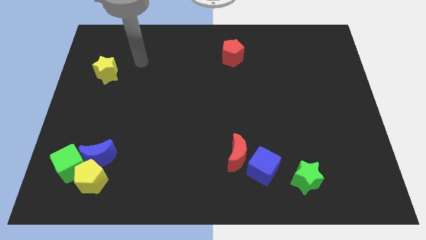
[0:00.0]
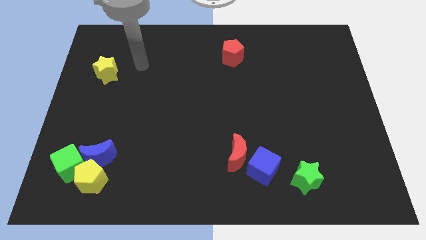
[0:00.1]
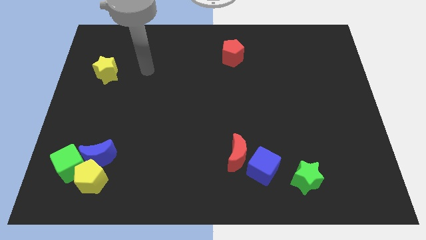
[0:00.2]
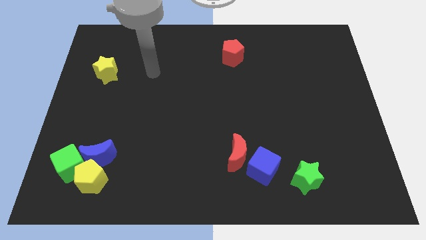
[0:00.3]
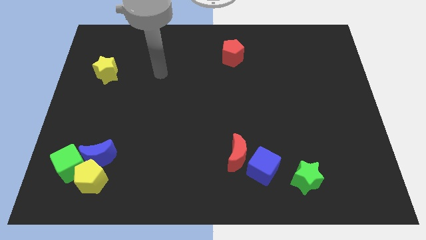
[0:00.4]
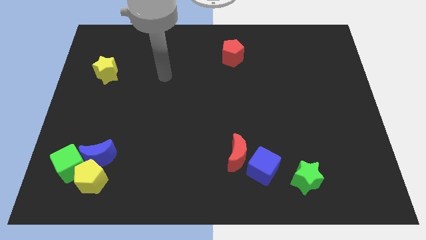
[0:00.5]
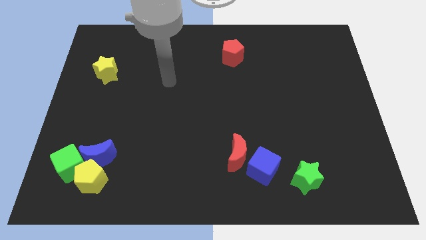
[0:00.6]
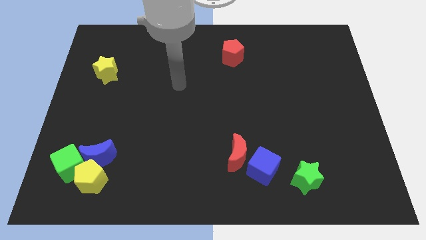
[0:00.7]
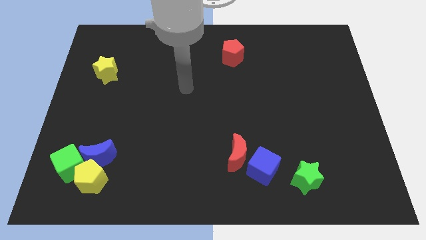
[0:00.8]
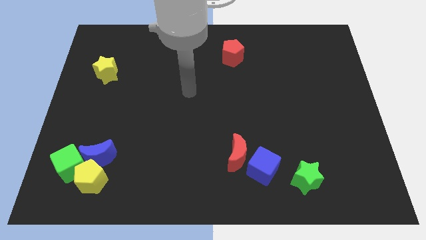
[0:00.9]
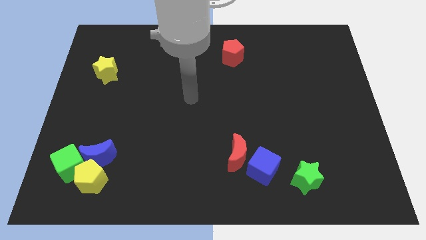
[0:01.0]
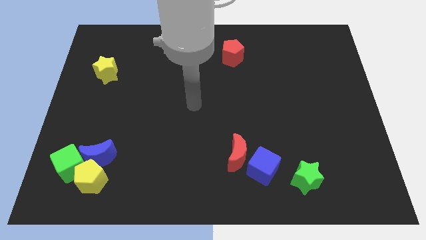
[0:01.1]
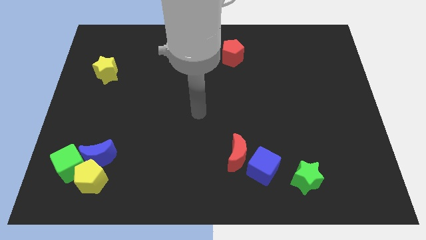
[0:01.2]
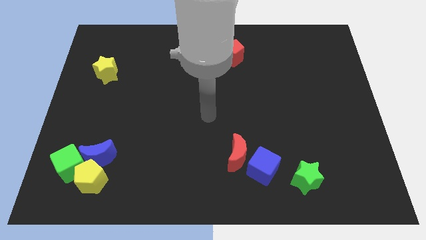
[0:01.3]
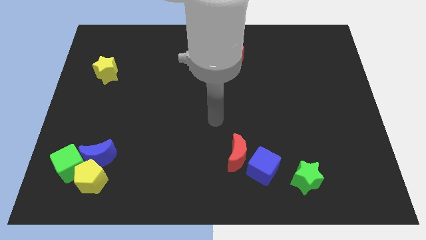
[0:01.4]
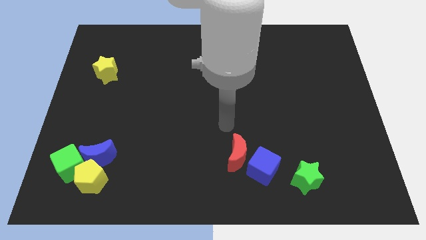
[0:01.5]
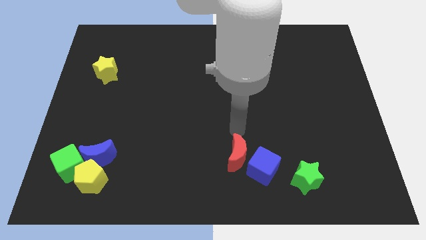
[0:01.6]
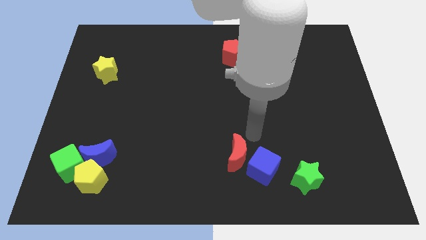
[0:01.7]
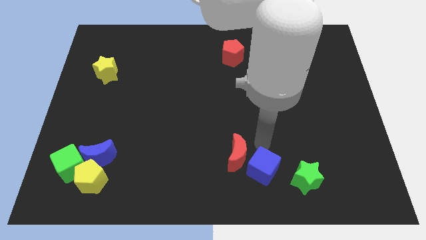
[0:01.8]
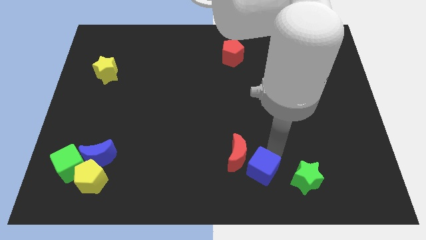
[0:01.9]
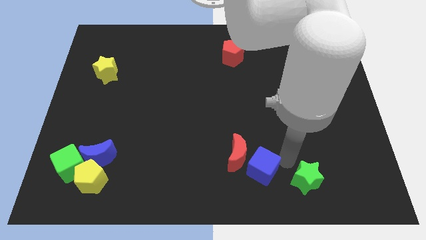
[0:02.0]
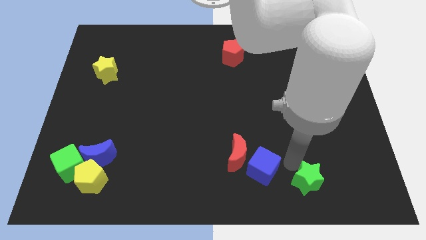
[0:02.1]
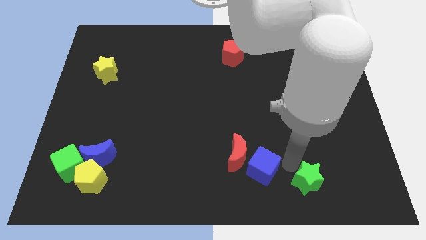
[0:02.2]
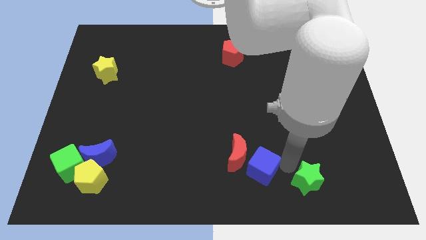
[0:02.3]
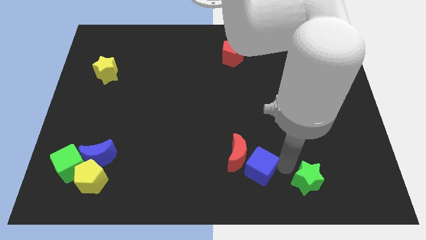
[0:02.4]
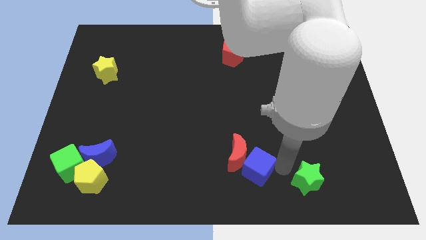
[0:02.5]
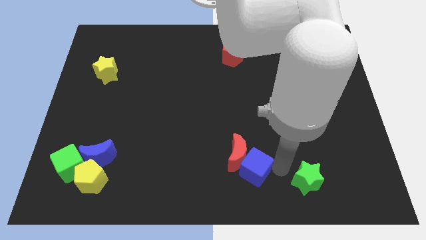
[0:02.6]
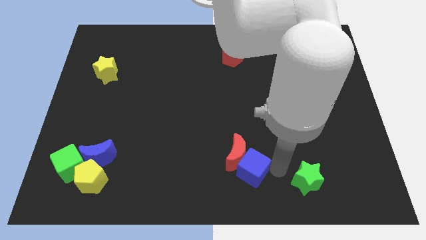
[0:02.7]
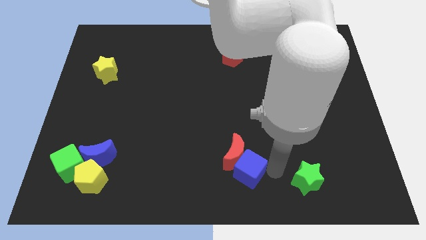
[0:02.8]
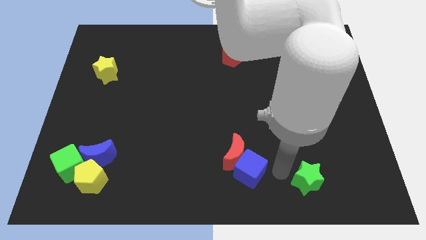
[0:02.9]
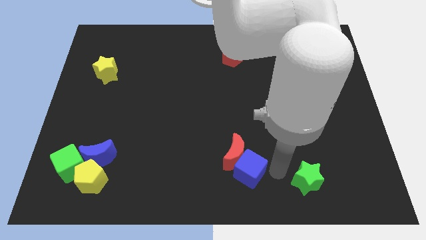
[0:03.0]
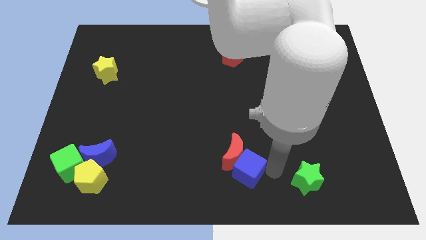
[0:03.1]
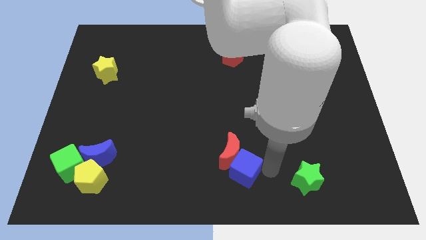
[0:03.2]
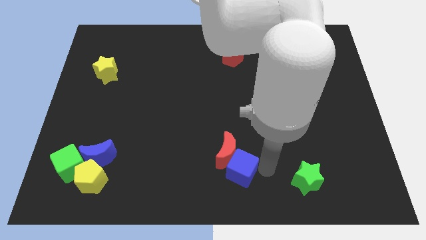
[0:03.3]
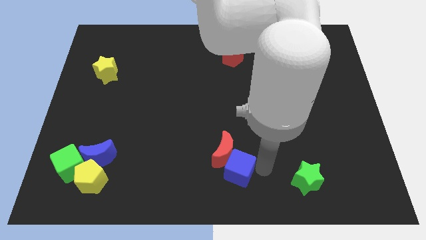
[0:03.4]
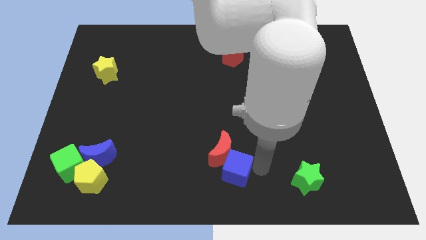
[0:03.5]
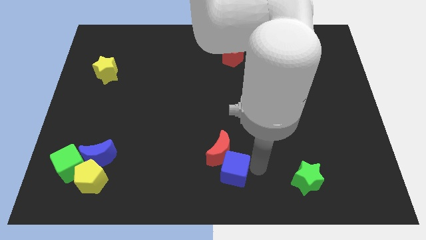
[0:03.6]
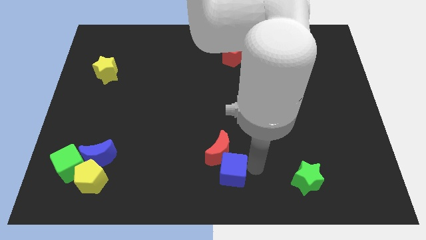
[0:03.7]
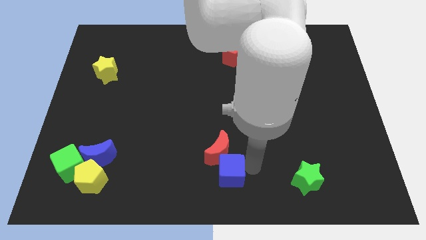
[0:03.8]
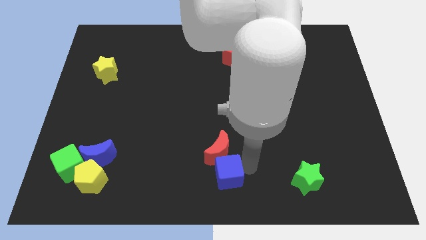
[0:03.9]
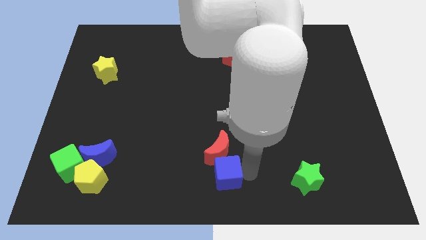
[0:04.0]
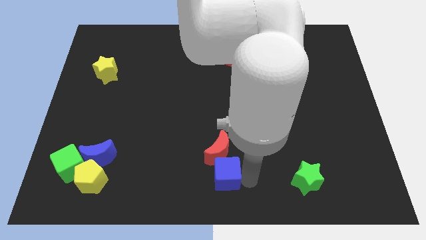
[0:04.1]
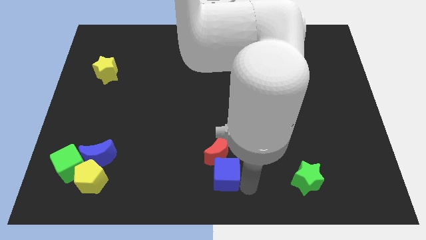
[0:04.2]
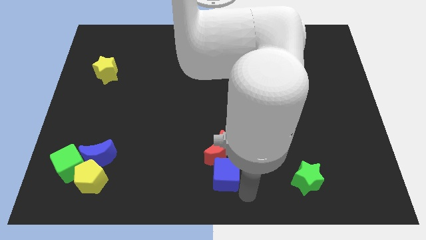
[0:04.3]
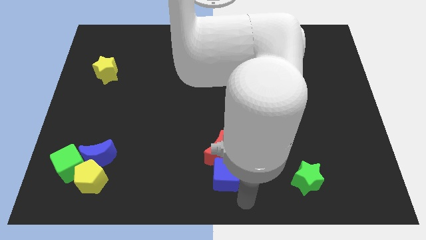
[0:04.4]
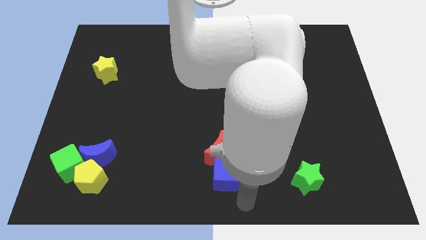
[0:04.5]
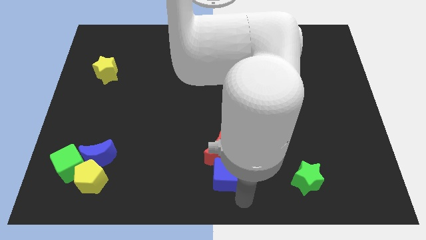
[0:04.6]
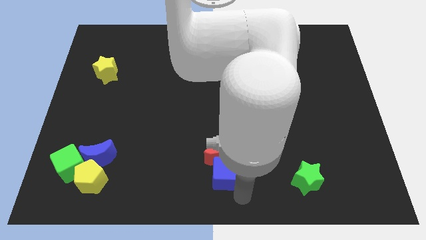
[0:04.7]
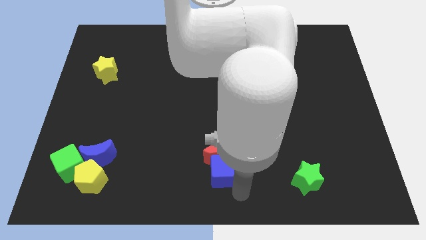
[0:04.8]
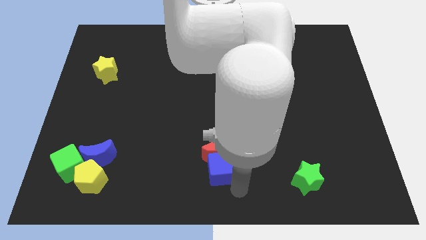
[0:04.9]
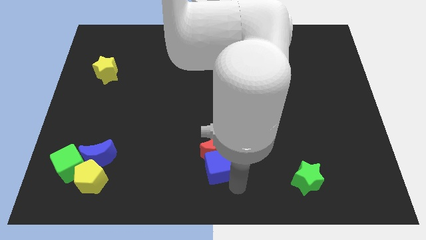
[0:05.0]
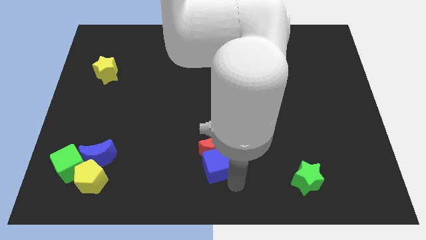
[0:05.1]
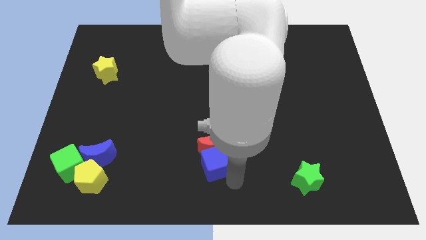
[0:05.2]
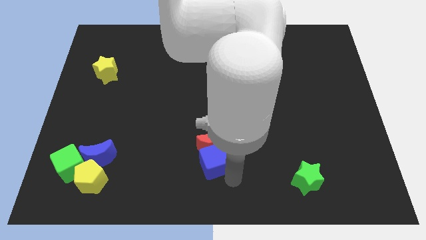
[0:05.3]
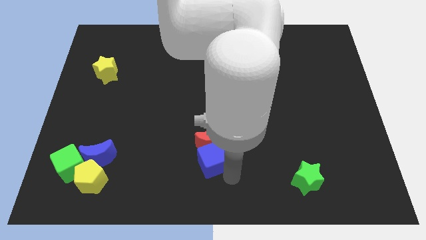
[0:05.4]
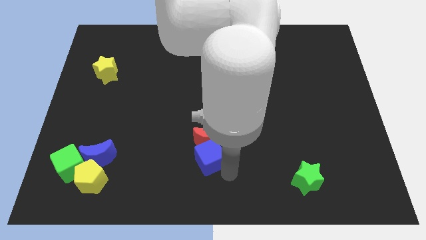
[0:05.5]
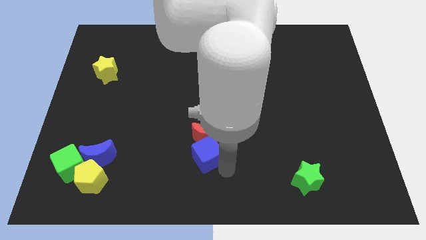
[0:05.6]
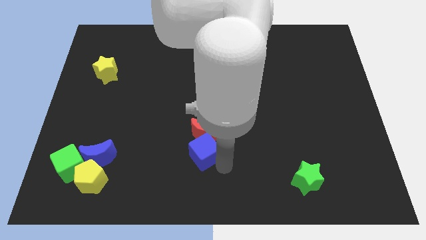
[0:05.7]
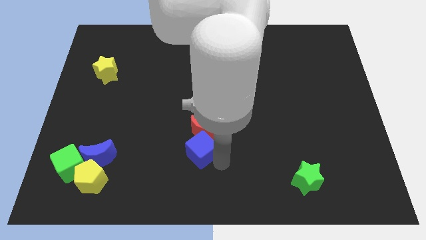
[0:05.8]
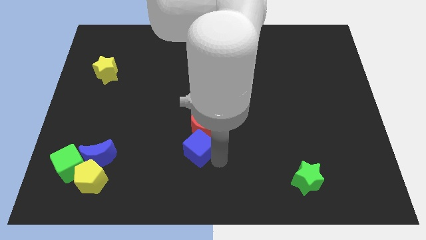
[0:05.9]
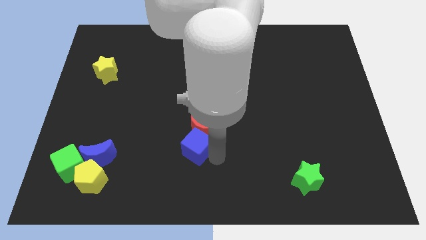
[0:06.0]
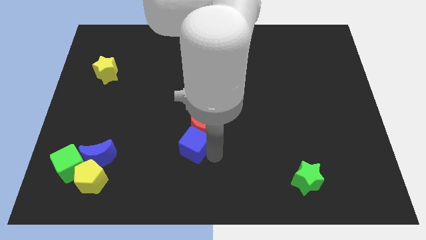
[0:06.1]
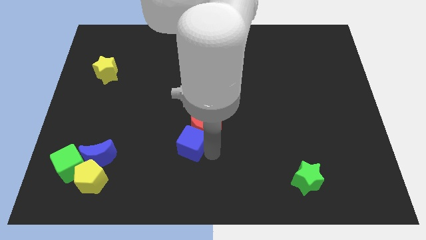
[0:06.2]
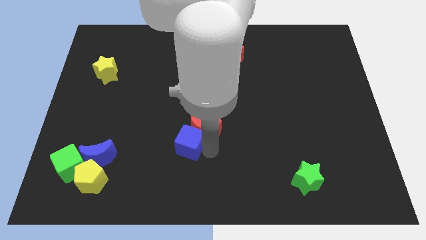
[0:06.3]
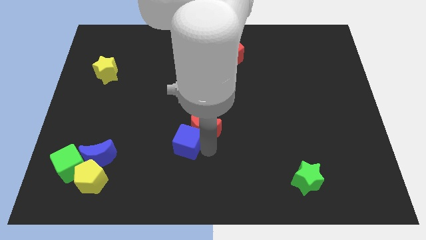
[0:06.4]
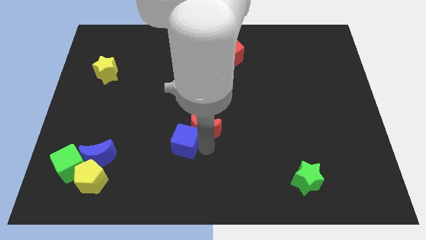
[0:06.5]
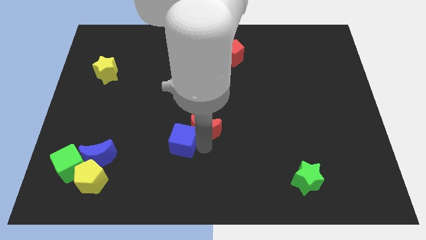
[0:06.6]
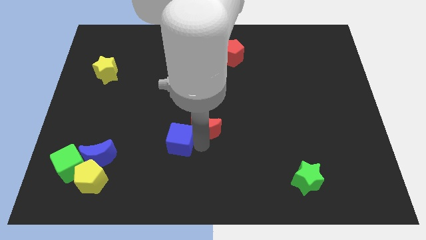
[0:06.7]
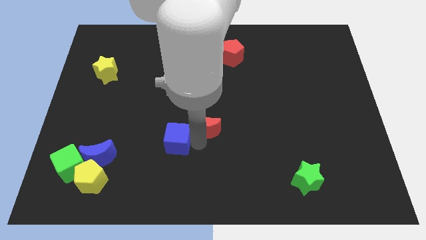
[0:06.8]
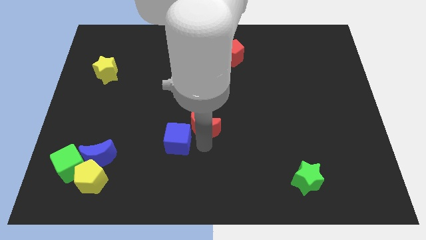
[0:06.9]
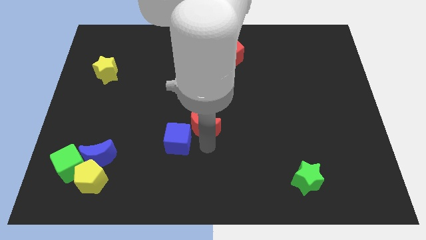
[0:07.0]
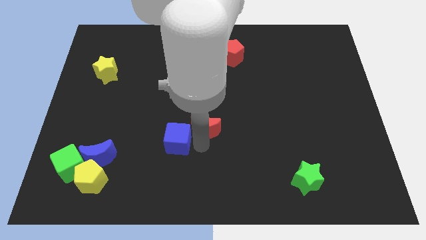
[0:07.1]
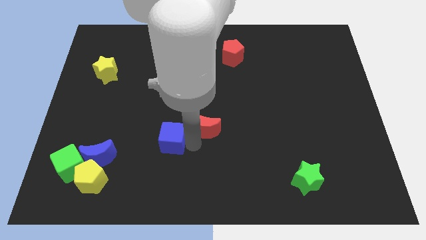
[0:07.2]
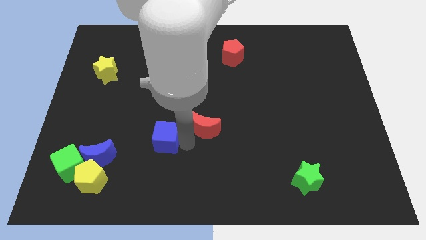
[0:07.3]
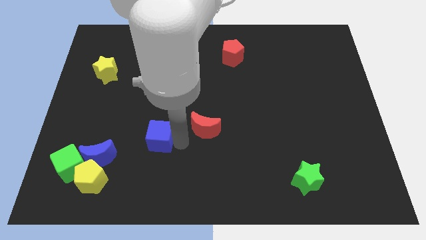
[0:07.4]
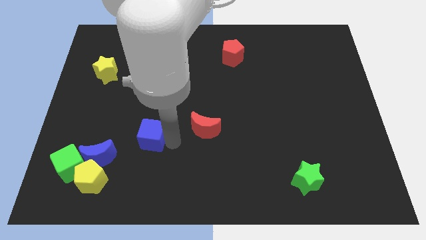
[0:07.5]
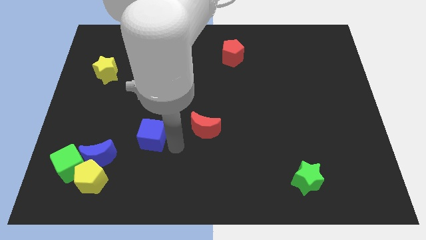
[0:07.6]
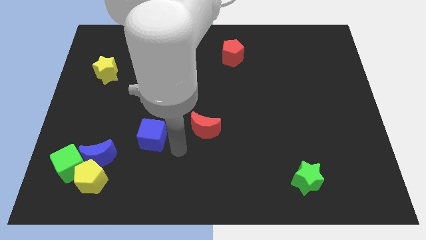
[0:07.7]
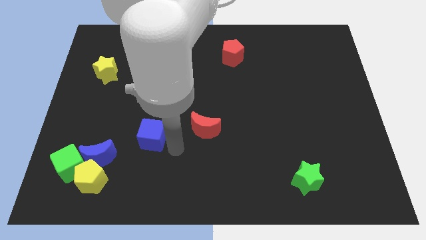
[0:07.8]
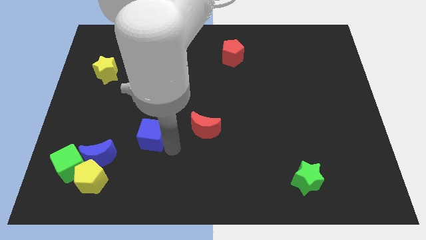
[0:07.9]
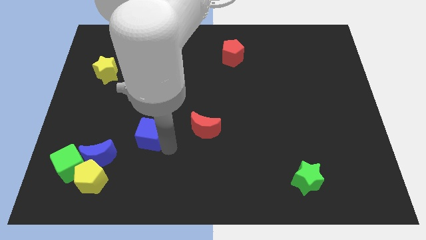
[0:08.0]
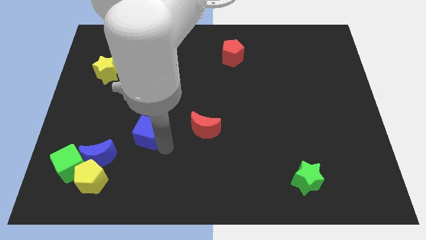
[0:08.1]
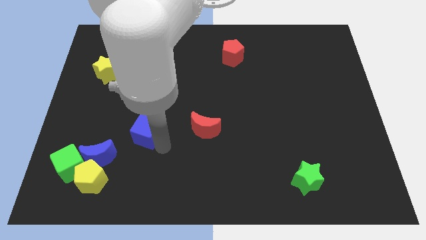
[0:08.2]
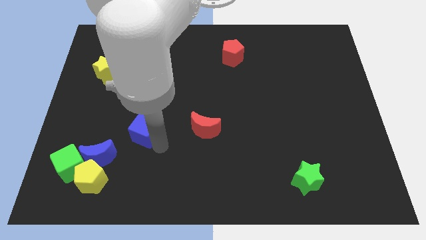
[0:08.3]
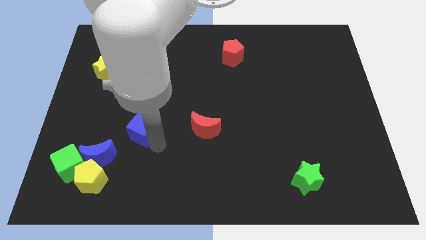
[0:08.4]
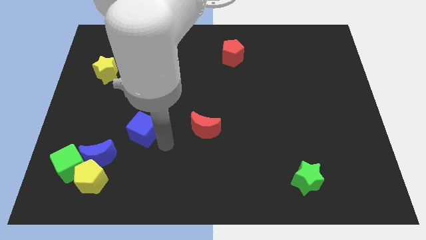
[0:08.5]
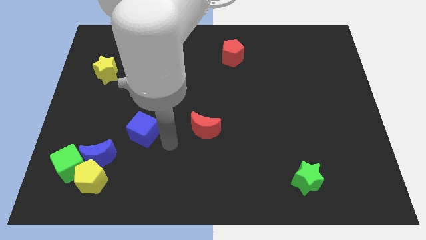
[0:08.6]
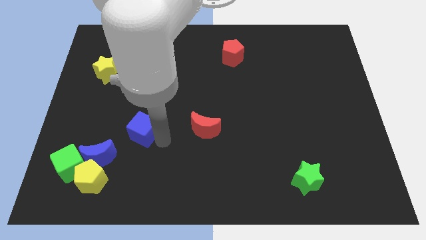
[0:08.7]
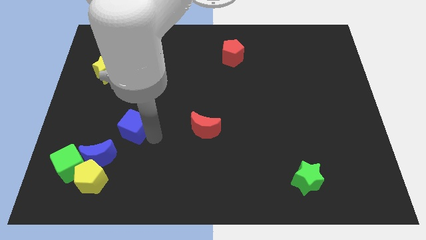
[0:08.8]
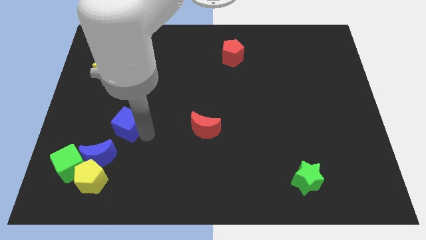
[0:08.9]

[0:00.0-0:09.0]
move the blue cube to the top of the blue moon
